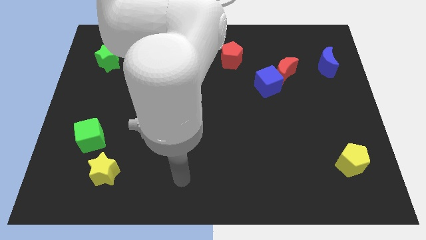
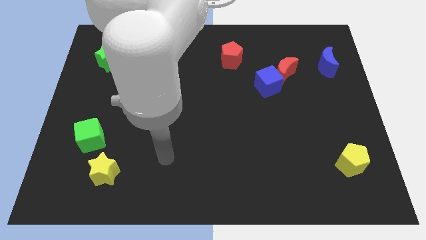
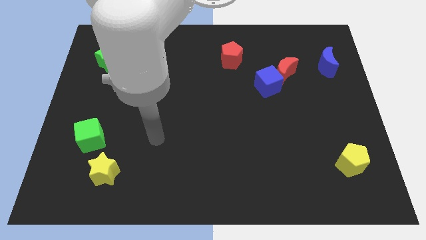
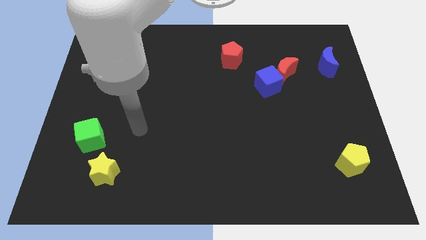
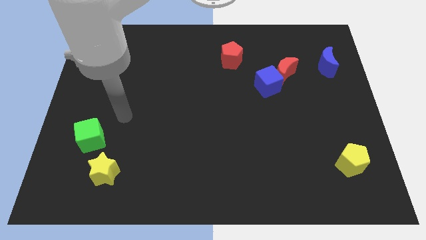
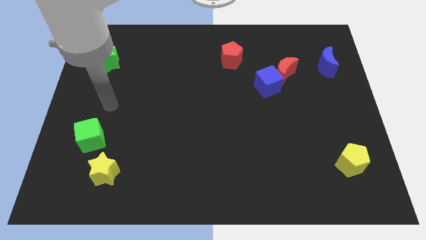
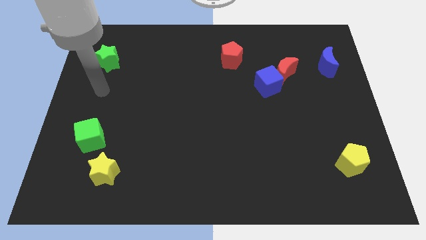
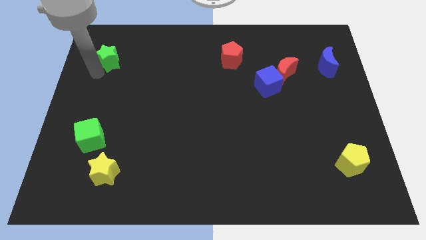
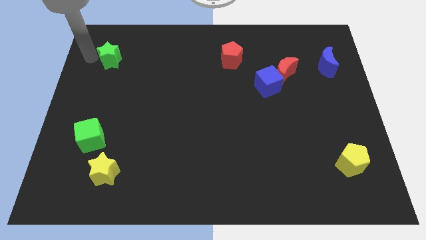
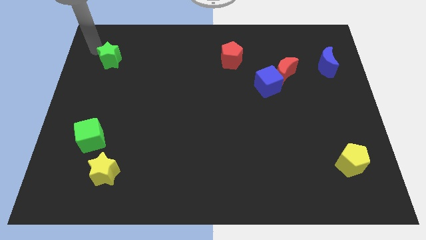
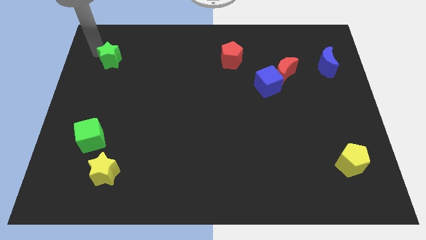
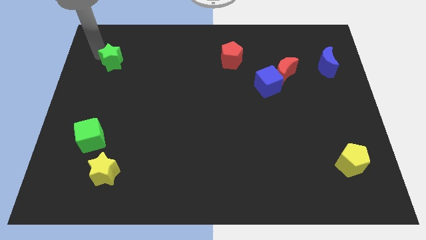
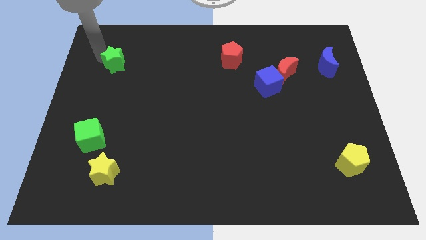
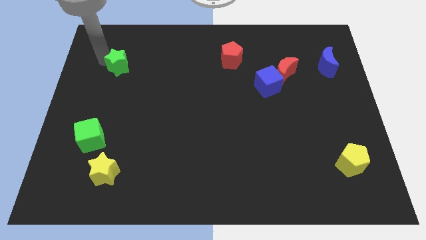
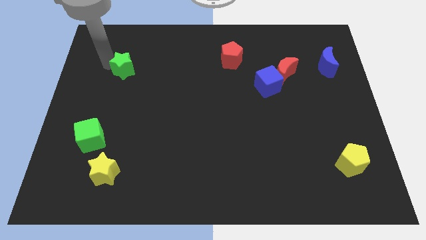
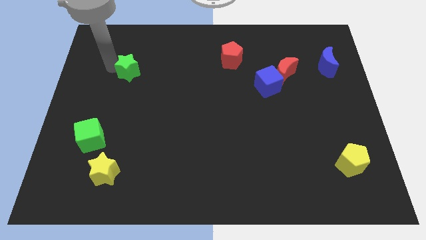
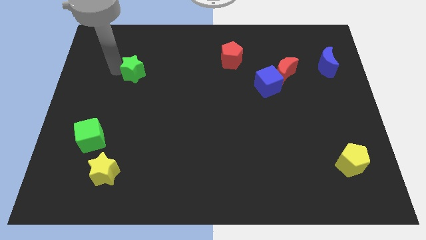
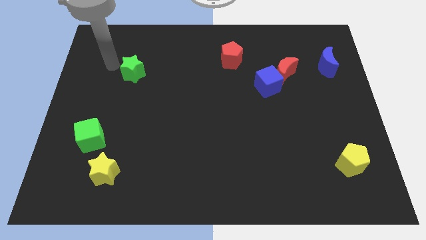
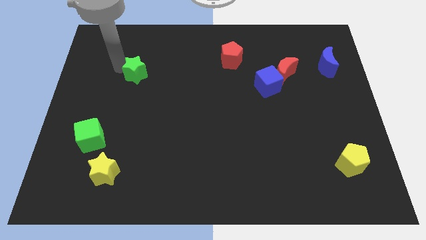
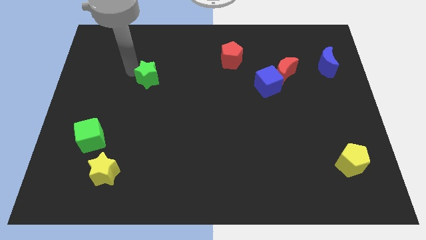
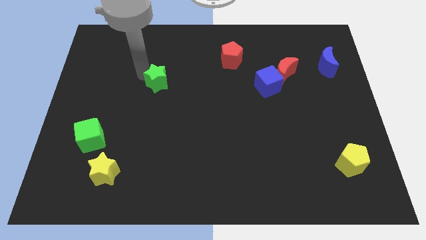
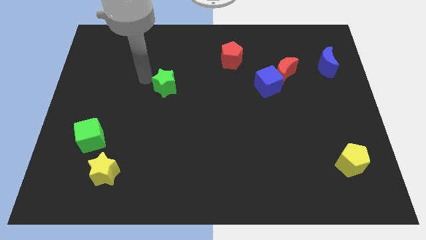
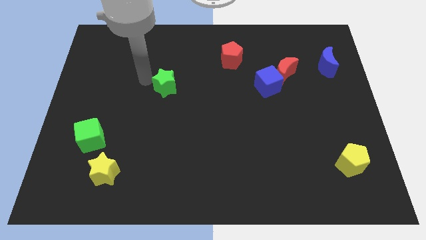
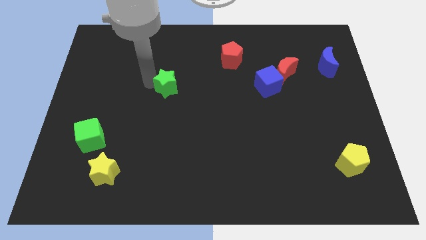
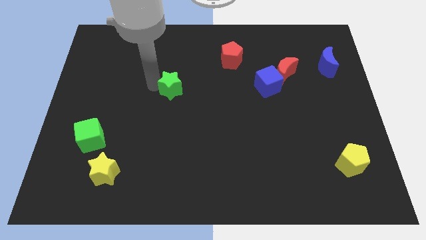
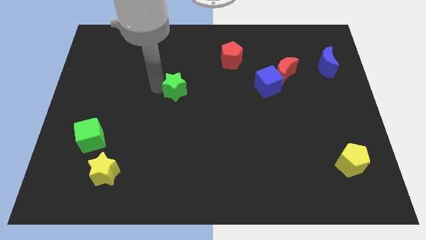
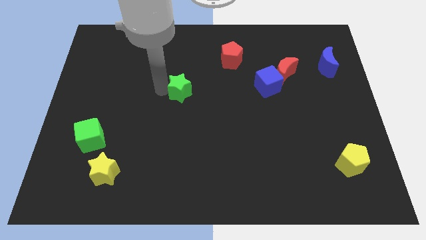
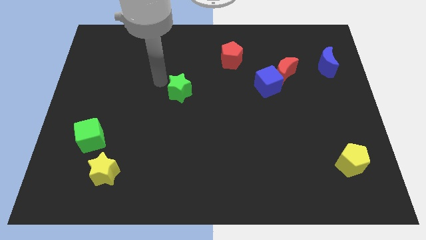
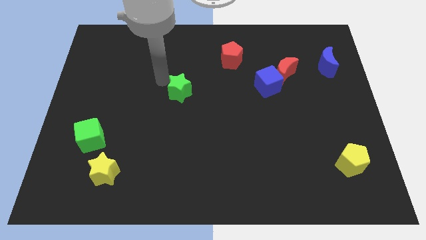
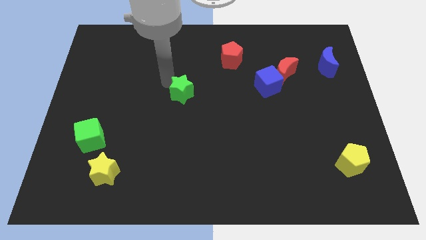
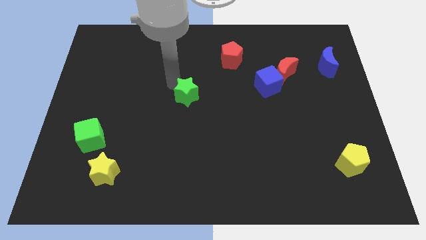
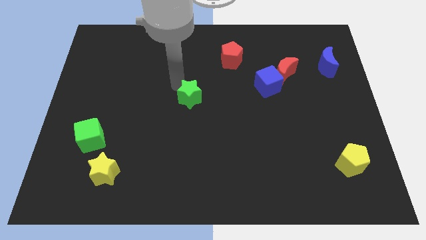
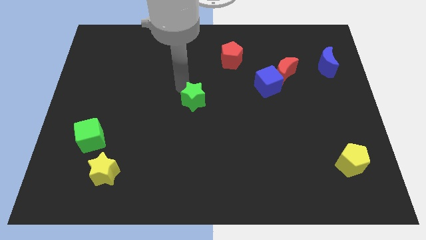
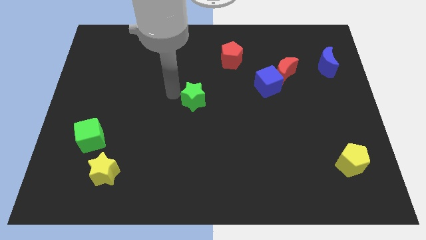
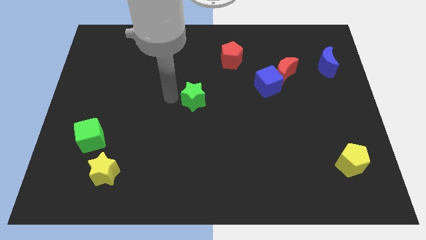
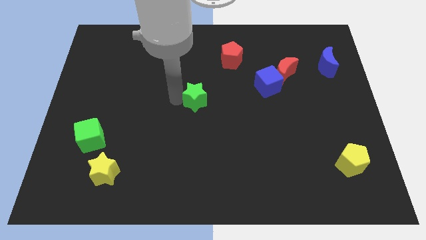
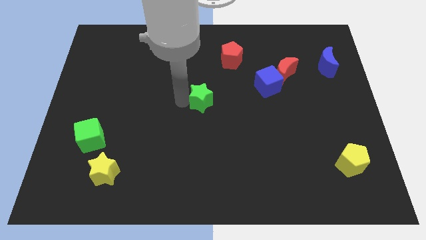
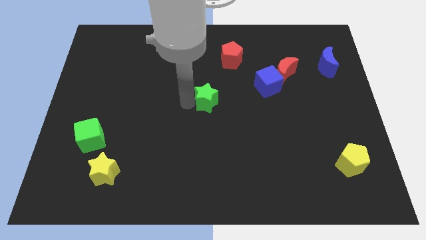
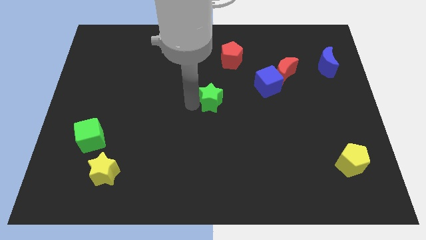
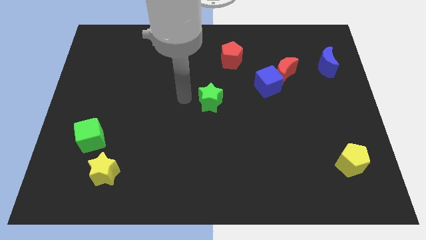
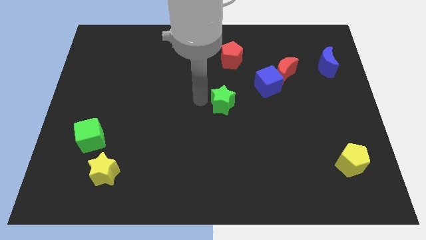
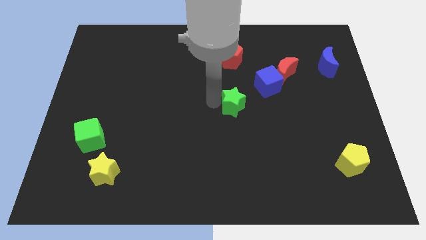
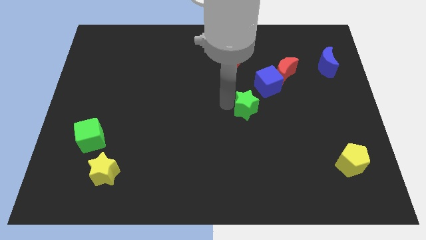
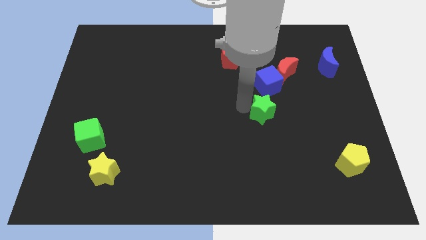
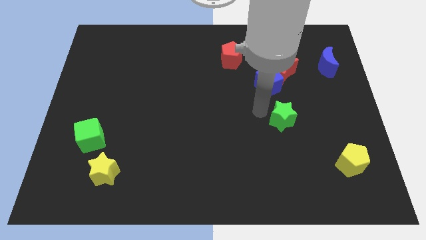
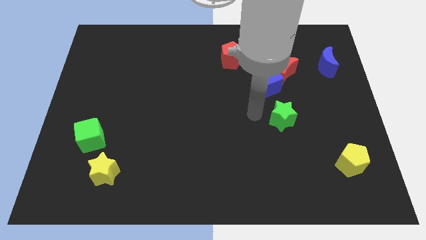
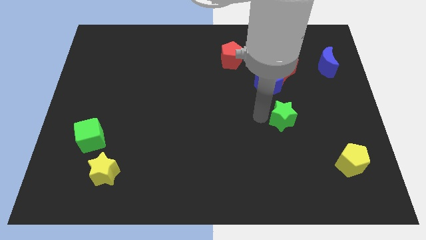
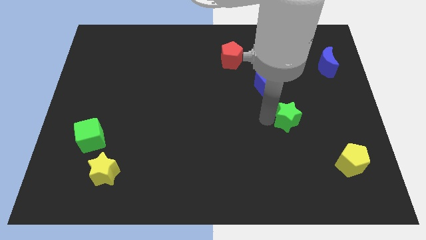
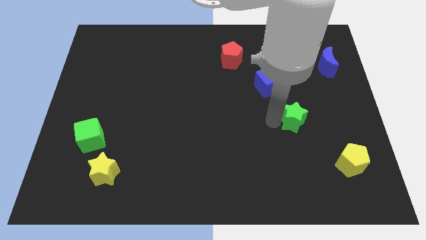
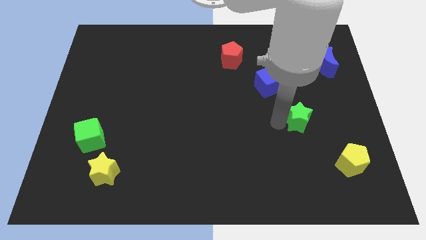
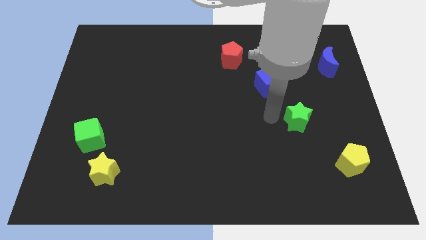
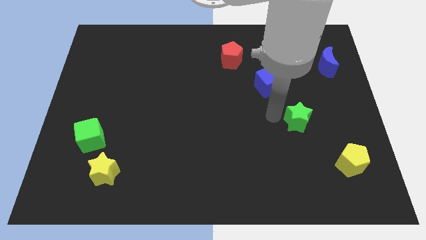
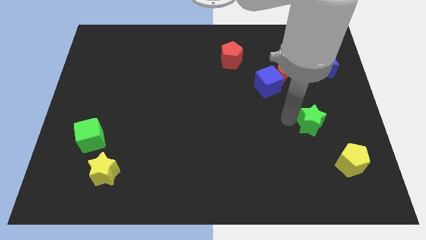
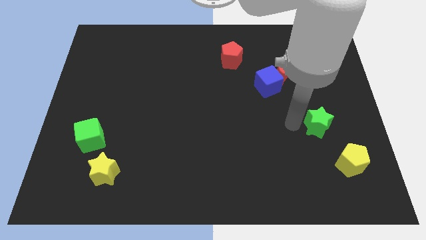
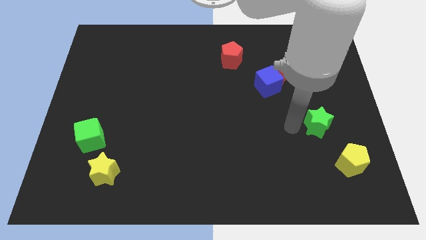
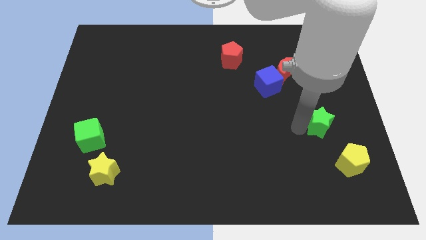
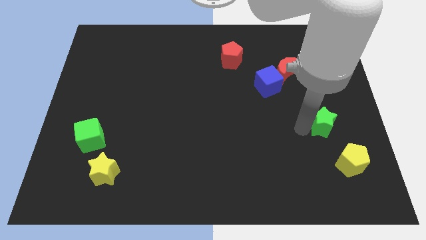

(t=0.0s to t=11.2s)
move the green star to the top of the yellow pentagon
